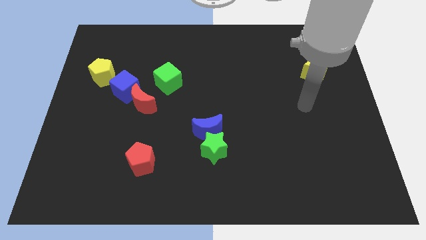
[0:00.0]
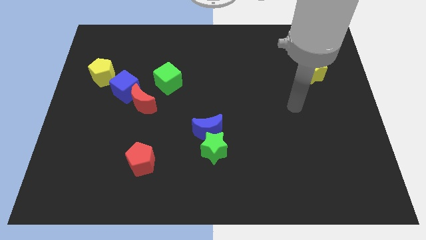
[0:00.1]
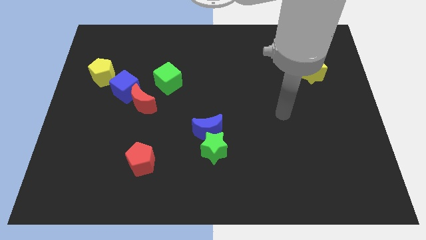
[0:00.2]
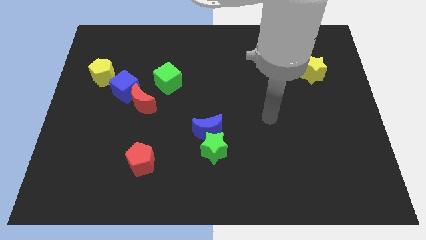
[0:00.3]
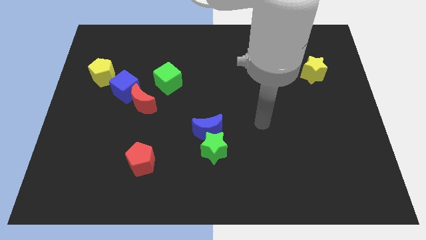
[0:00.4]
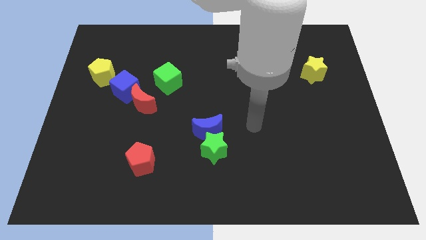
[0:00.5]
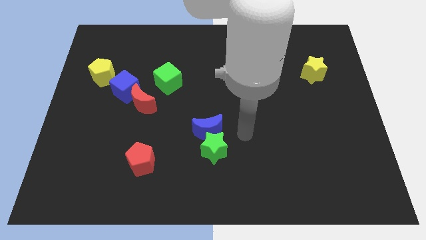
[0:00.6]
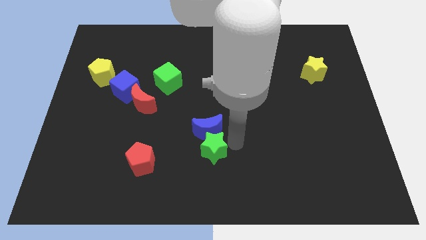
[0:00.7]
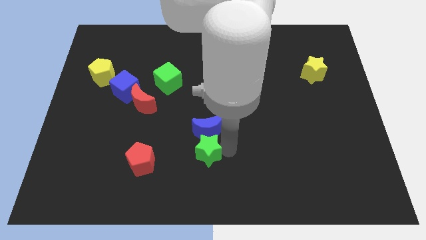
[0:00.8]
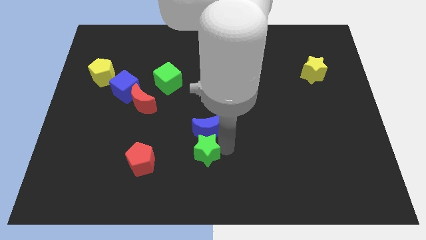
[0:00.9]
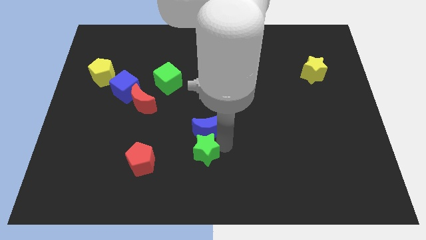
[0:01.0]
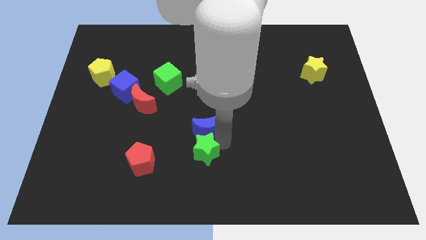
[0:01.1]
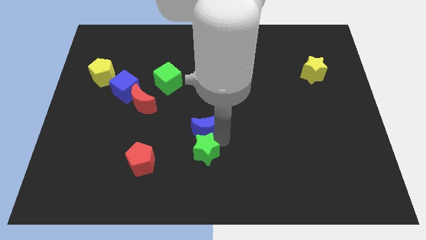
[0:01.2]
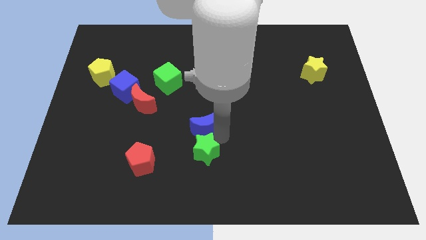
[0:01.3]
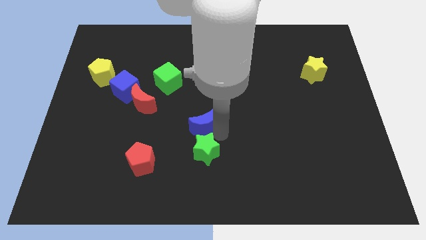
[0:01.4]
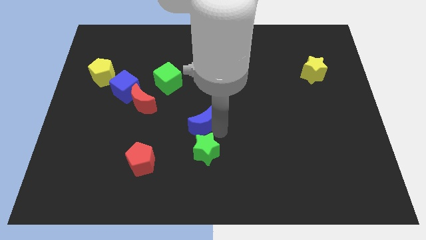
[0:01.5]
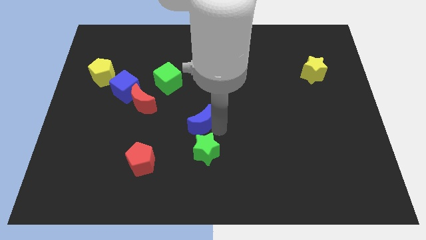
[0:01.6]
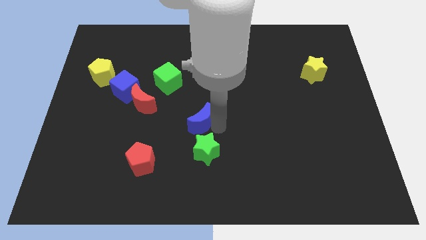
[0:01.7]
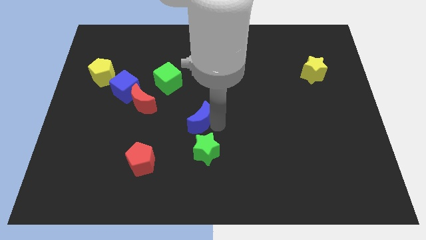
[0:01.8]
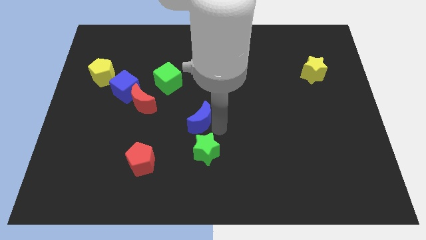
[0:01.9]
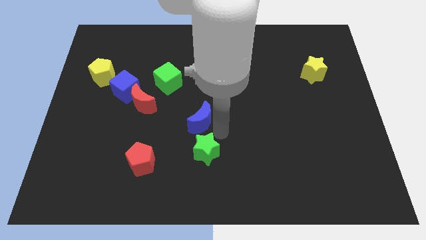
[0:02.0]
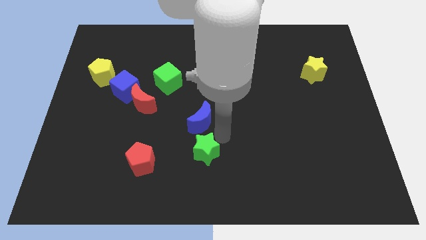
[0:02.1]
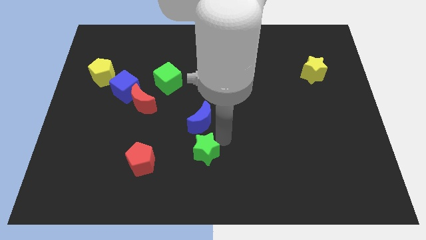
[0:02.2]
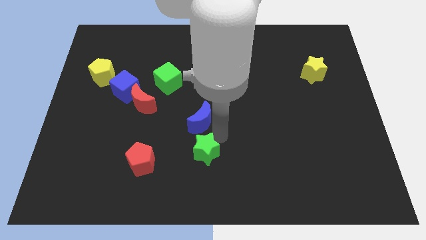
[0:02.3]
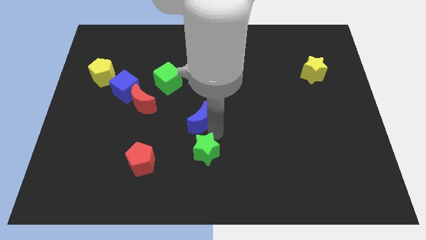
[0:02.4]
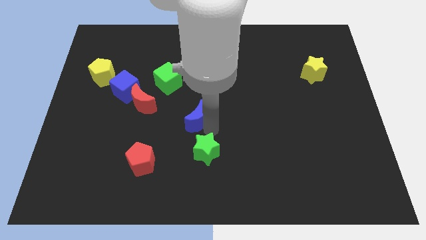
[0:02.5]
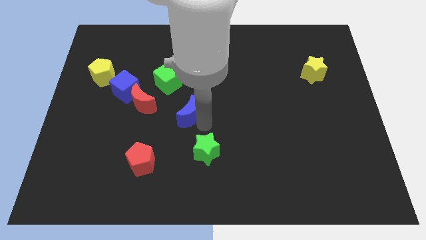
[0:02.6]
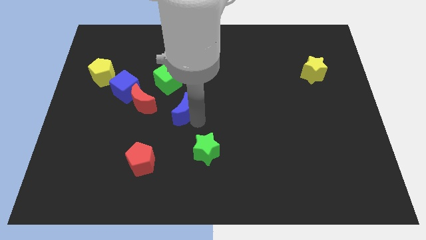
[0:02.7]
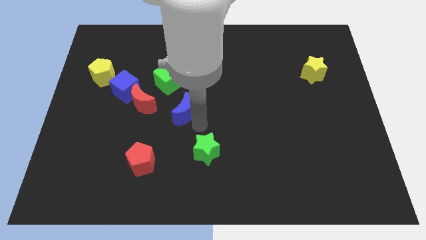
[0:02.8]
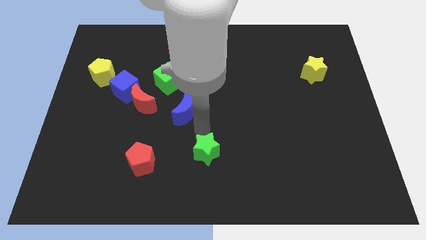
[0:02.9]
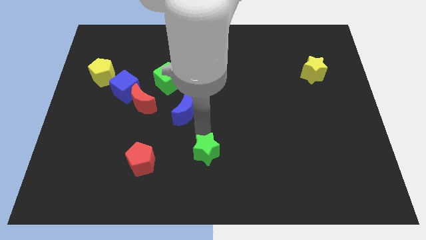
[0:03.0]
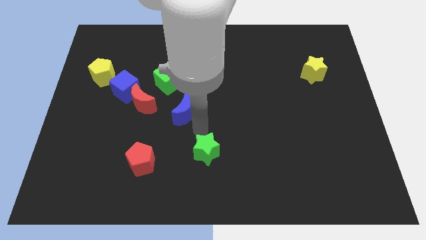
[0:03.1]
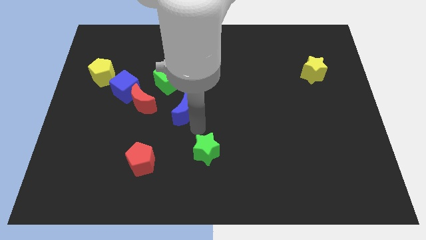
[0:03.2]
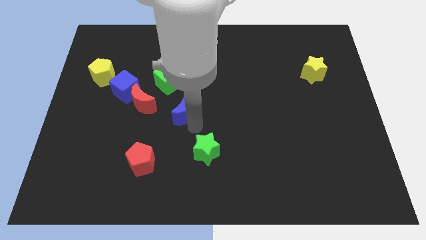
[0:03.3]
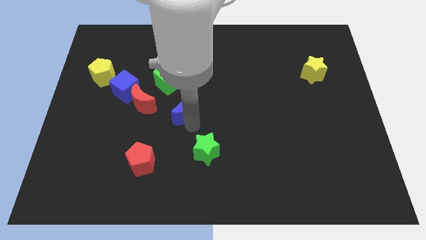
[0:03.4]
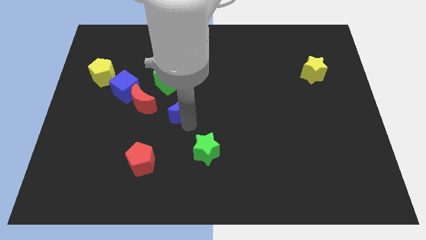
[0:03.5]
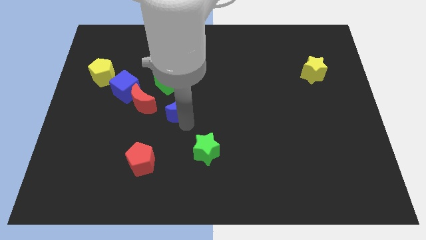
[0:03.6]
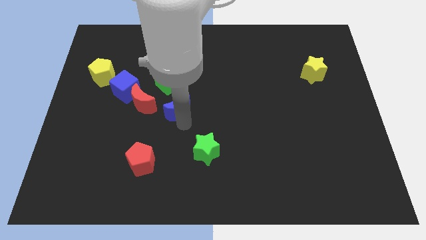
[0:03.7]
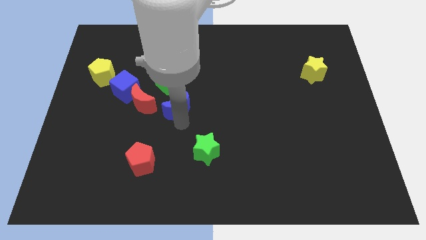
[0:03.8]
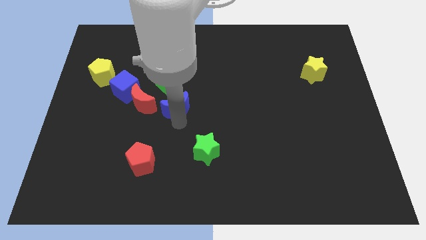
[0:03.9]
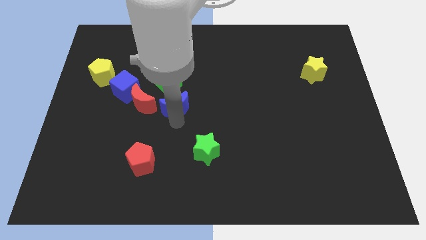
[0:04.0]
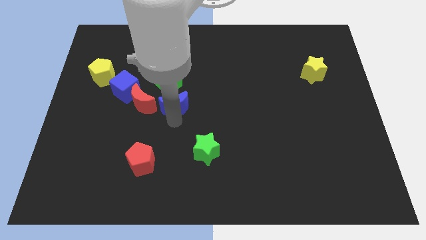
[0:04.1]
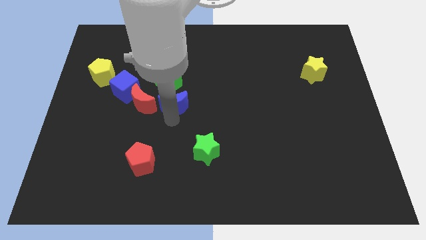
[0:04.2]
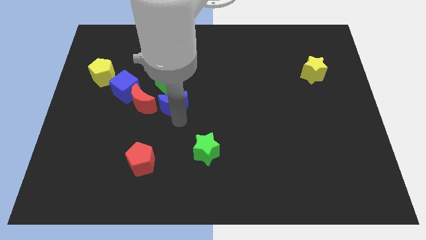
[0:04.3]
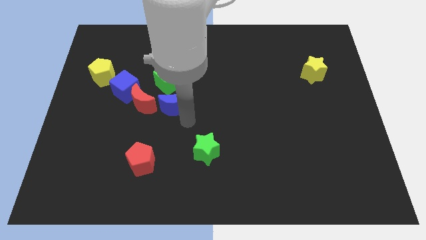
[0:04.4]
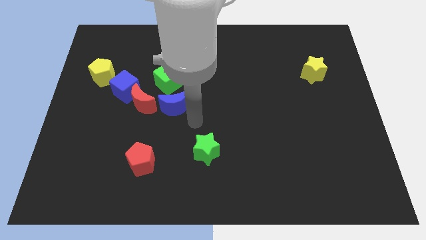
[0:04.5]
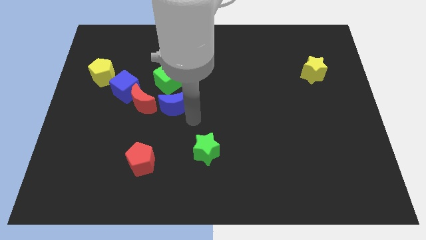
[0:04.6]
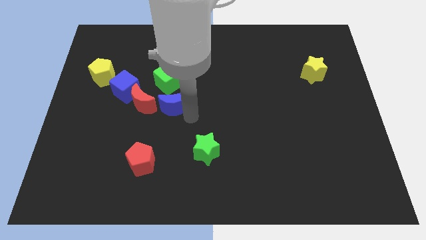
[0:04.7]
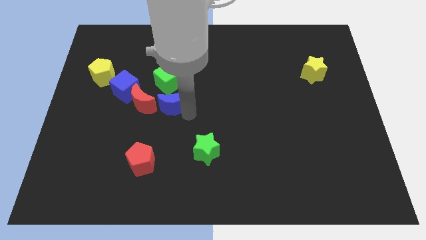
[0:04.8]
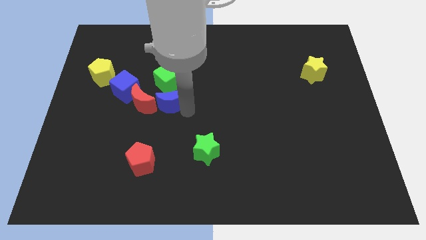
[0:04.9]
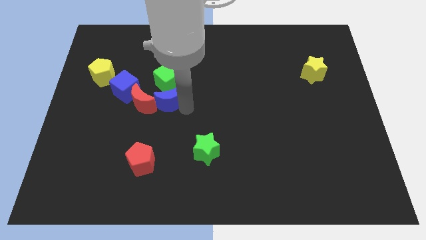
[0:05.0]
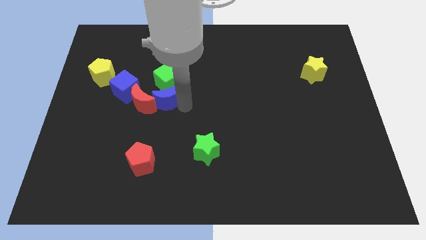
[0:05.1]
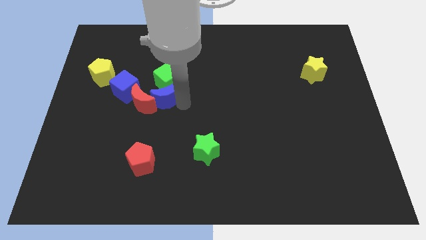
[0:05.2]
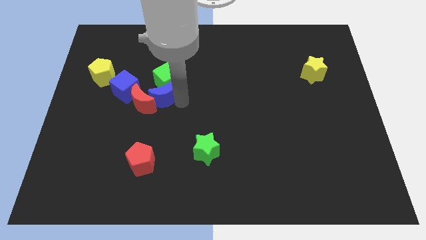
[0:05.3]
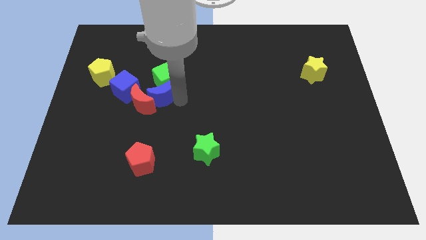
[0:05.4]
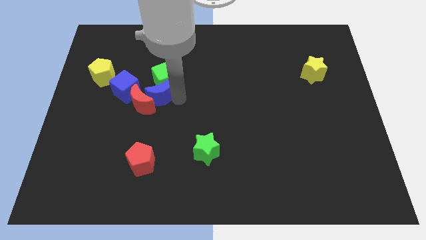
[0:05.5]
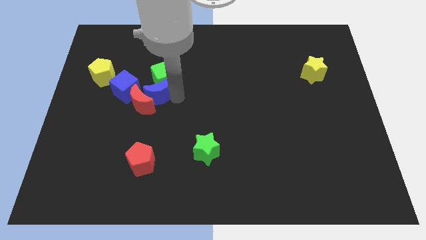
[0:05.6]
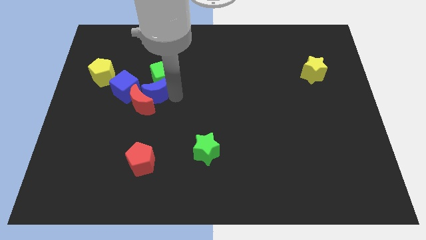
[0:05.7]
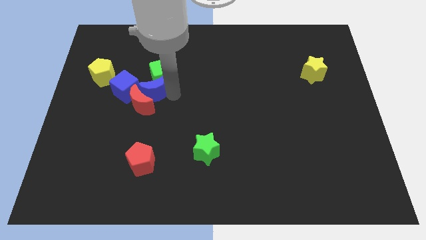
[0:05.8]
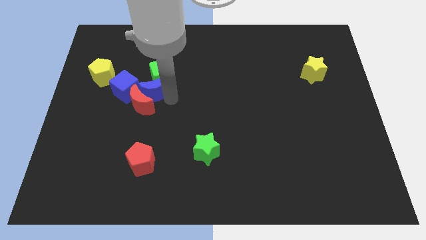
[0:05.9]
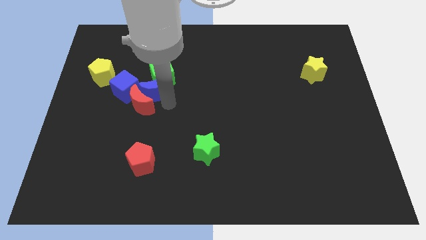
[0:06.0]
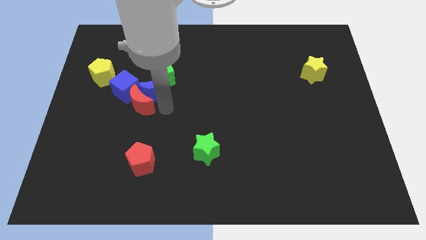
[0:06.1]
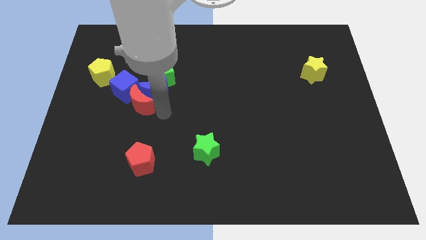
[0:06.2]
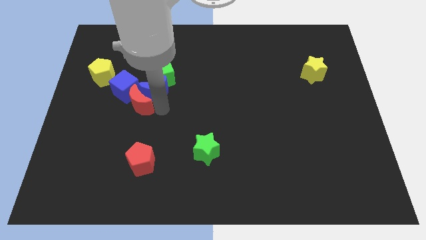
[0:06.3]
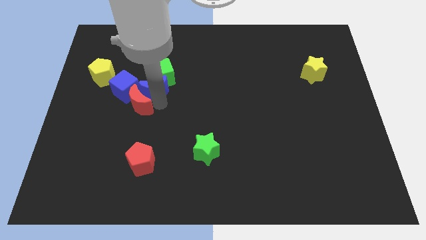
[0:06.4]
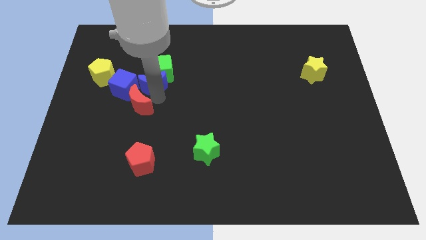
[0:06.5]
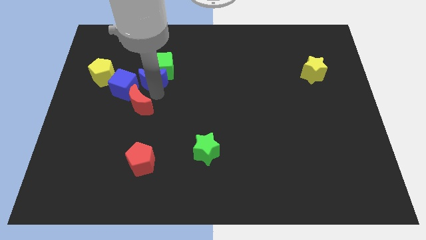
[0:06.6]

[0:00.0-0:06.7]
slide the blue moon up and left

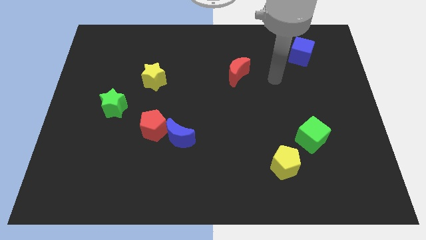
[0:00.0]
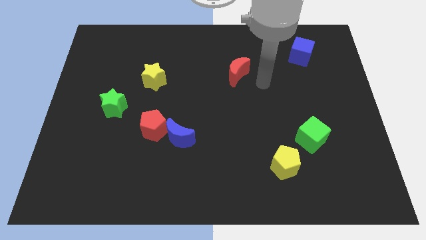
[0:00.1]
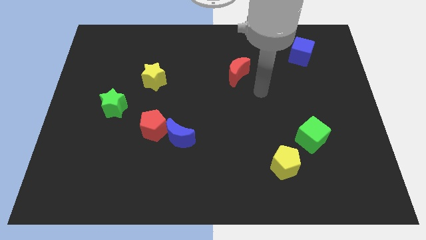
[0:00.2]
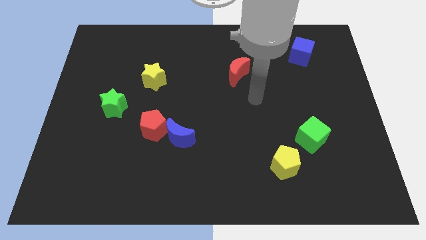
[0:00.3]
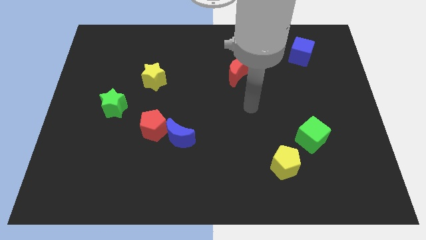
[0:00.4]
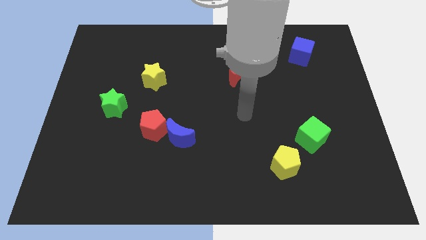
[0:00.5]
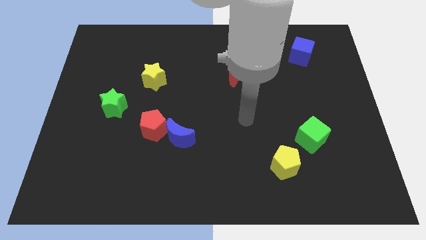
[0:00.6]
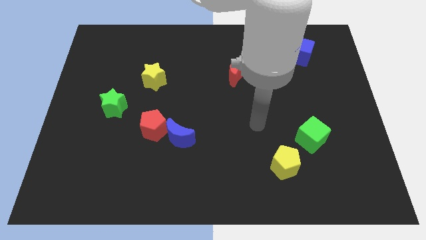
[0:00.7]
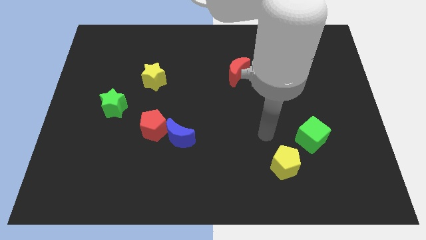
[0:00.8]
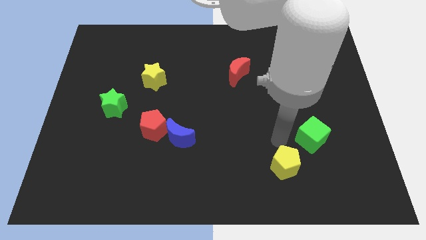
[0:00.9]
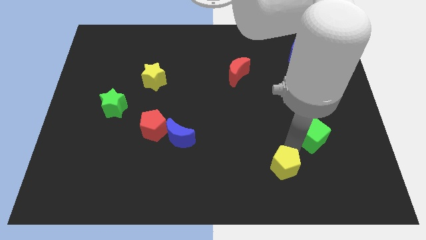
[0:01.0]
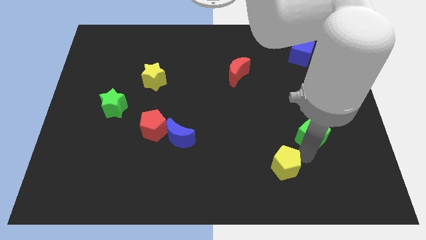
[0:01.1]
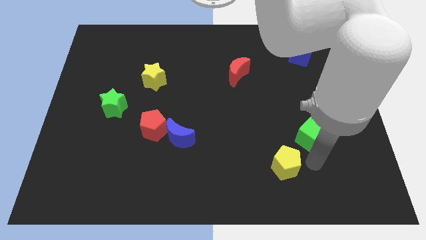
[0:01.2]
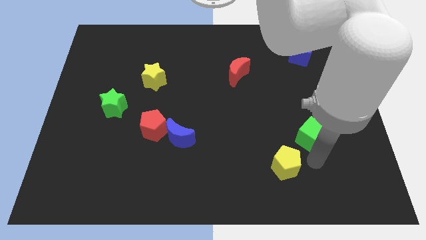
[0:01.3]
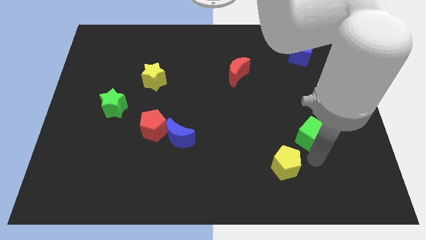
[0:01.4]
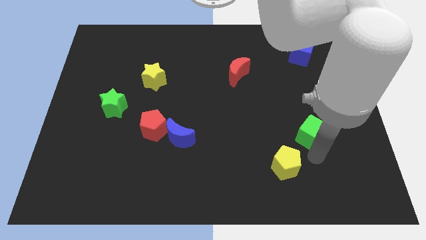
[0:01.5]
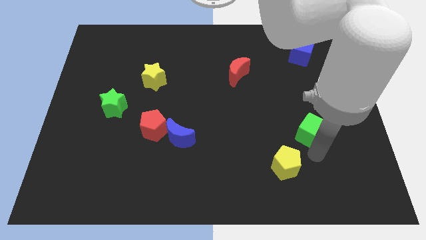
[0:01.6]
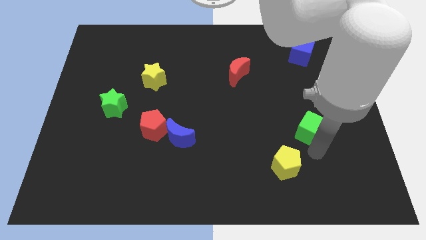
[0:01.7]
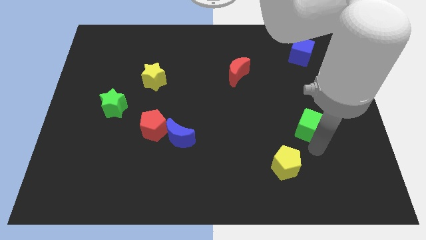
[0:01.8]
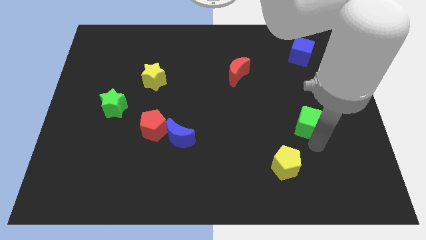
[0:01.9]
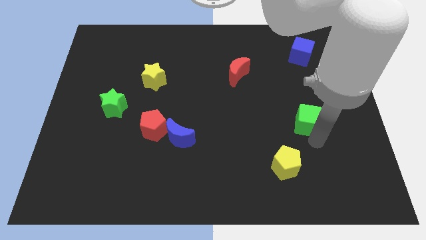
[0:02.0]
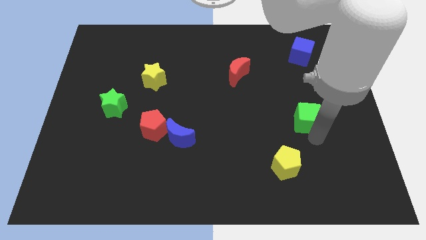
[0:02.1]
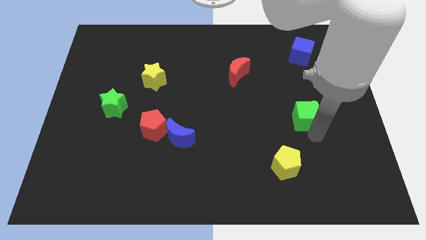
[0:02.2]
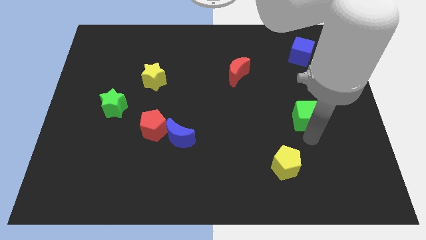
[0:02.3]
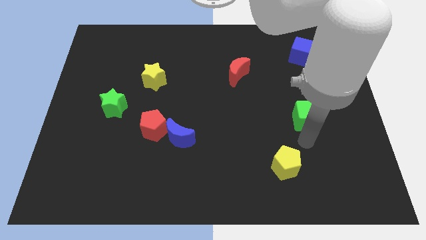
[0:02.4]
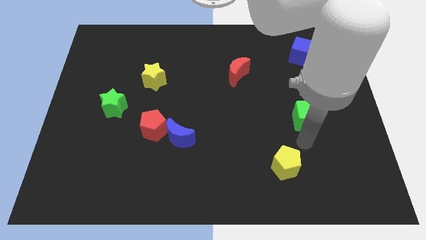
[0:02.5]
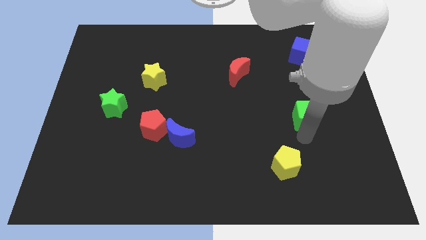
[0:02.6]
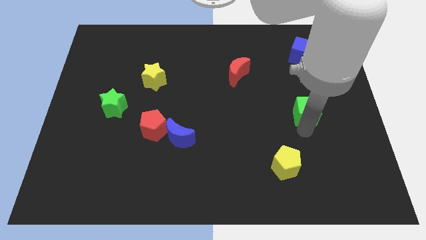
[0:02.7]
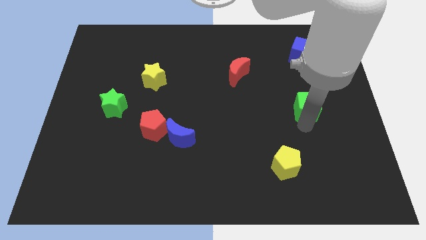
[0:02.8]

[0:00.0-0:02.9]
slide the green cube slightly upwards
